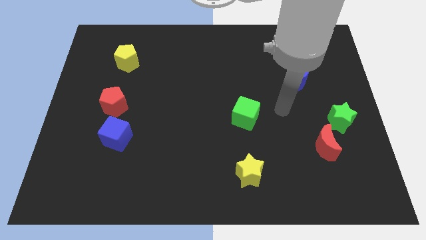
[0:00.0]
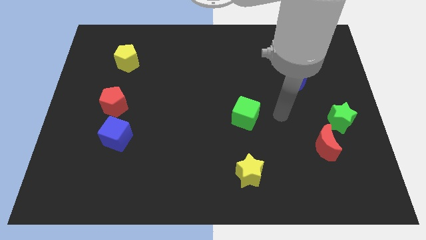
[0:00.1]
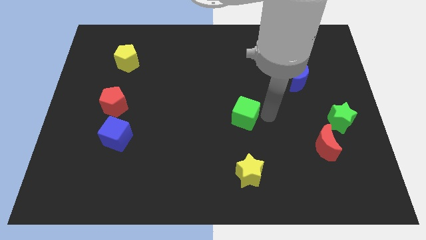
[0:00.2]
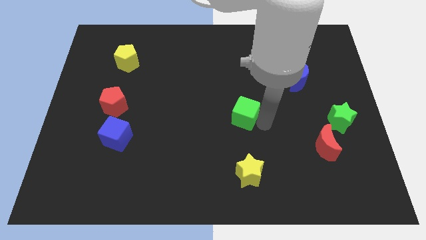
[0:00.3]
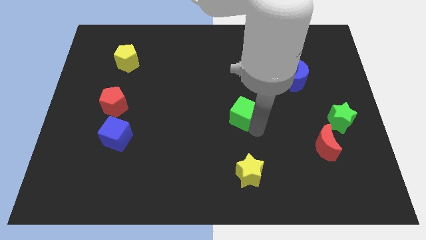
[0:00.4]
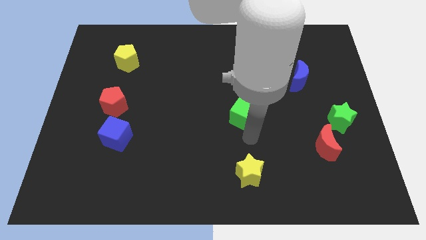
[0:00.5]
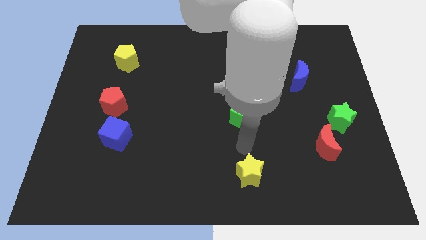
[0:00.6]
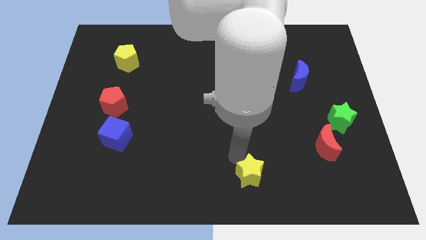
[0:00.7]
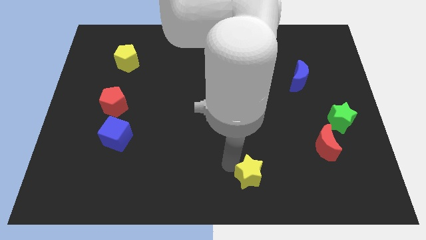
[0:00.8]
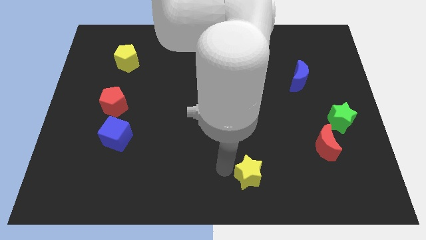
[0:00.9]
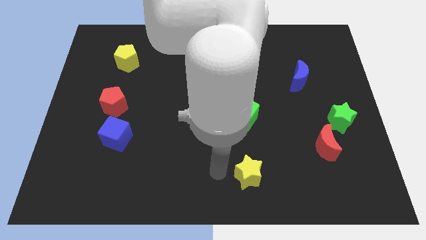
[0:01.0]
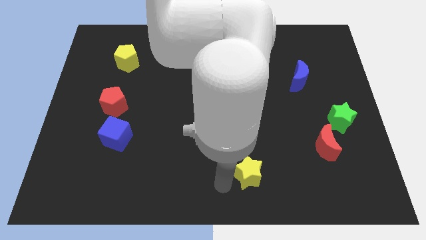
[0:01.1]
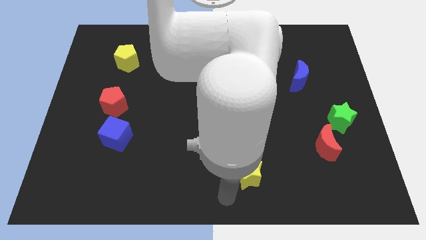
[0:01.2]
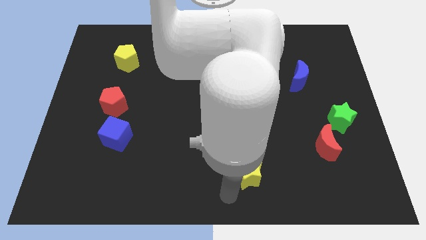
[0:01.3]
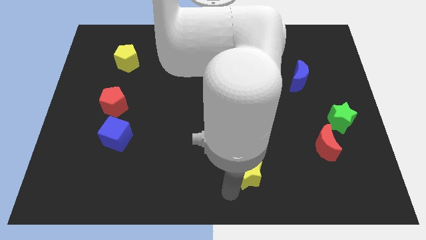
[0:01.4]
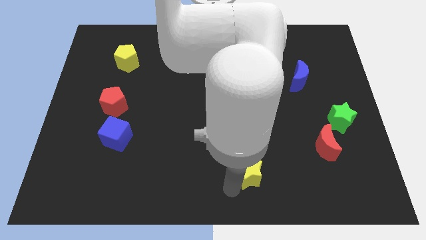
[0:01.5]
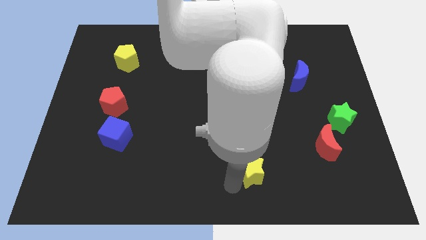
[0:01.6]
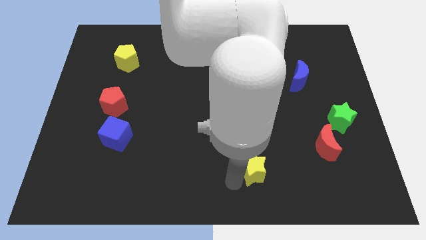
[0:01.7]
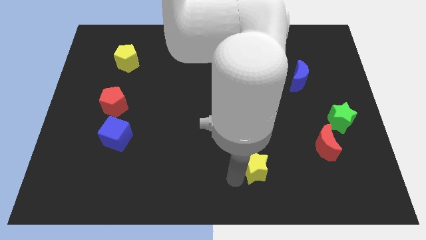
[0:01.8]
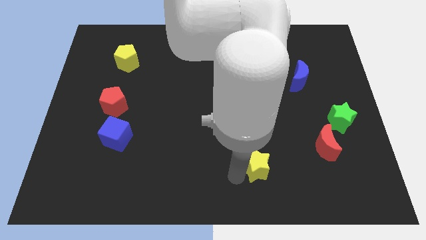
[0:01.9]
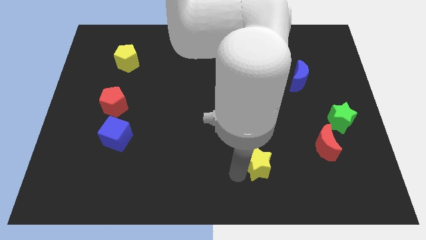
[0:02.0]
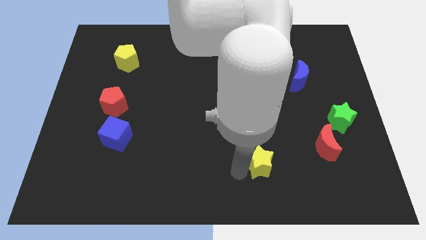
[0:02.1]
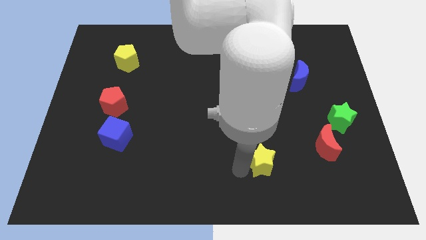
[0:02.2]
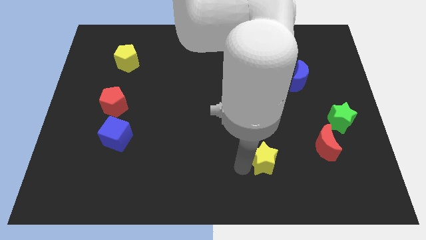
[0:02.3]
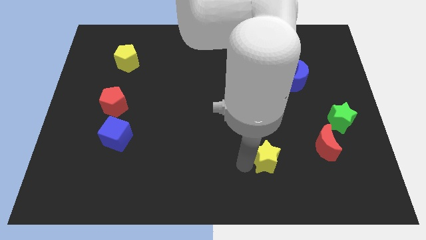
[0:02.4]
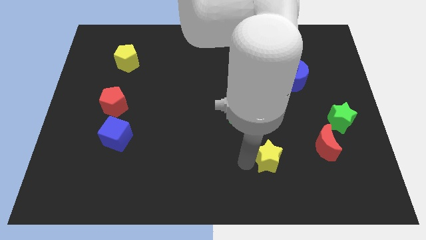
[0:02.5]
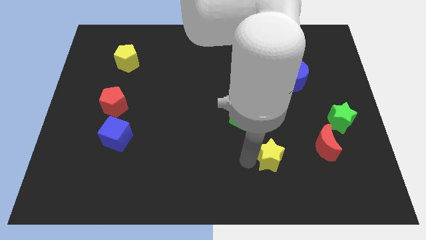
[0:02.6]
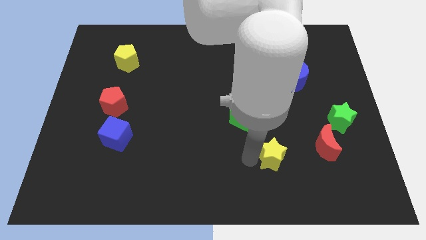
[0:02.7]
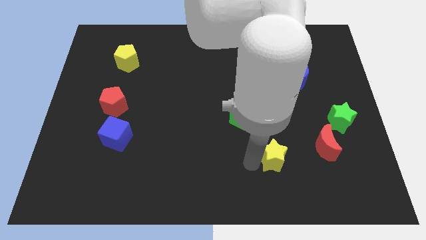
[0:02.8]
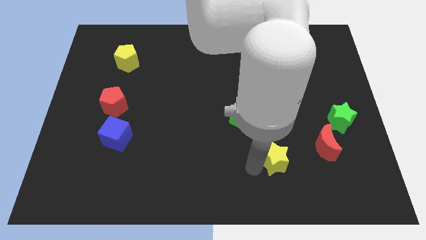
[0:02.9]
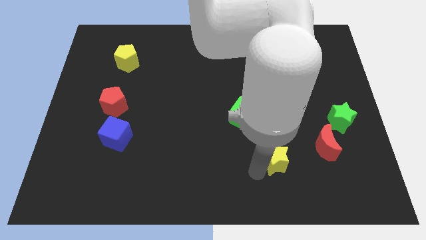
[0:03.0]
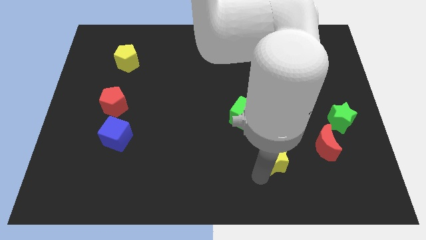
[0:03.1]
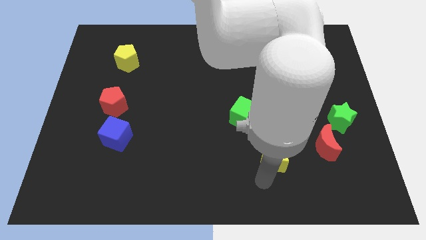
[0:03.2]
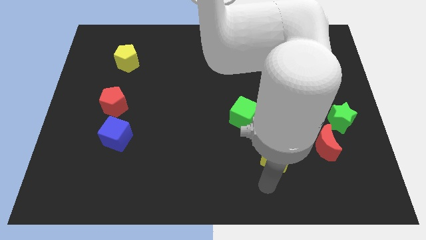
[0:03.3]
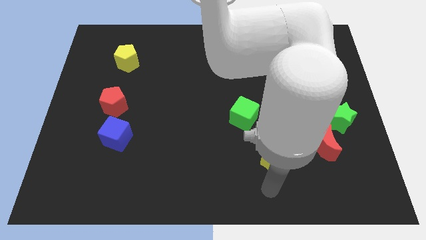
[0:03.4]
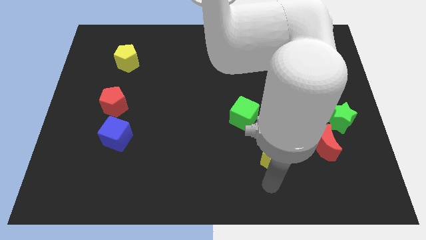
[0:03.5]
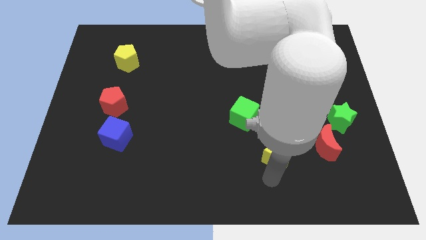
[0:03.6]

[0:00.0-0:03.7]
move the yellow star a little upwards and then to the right

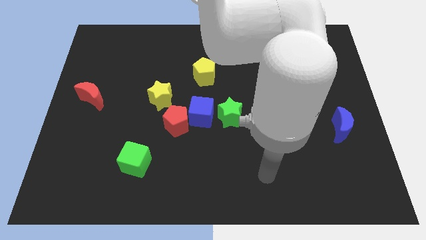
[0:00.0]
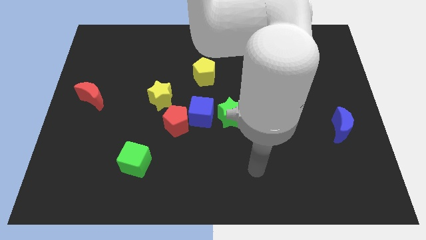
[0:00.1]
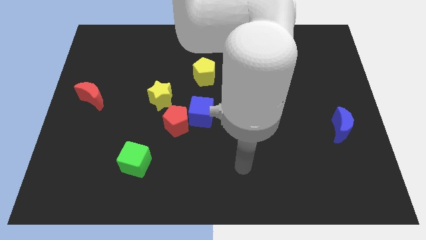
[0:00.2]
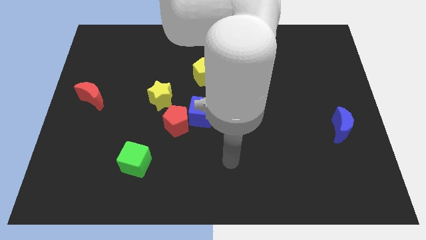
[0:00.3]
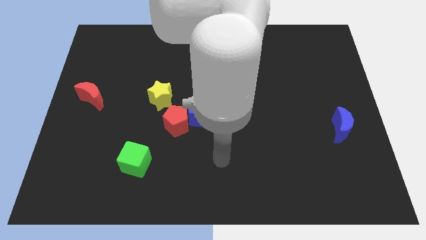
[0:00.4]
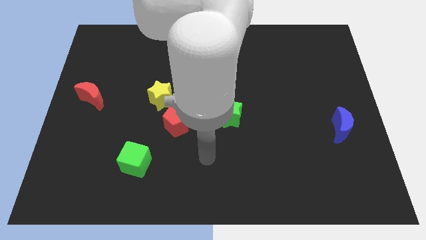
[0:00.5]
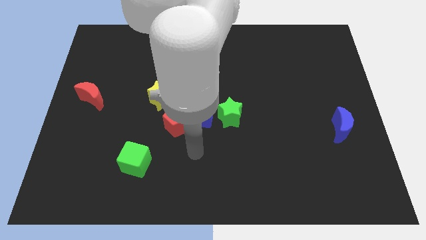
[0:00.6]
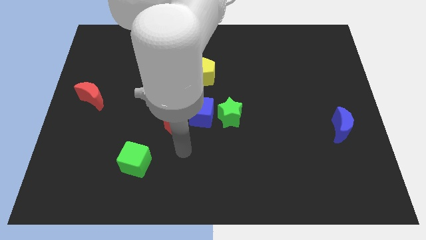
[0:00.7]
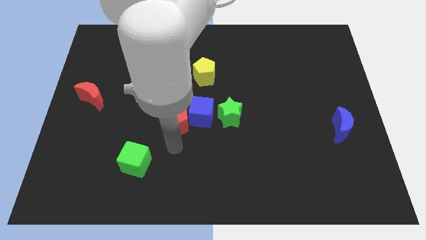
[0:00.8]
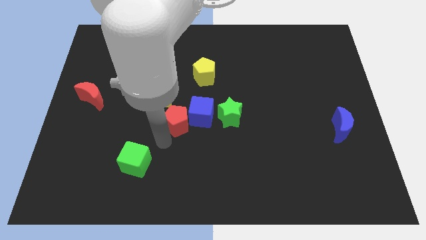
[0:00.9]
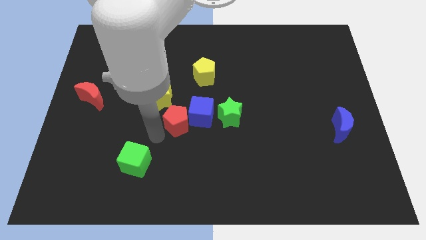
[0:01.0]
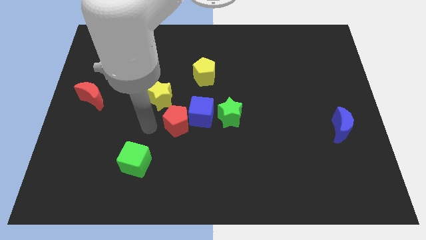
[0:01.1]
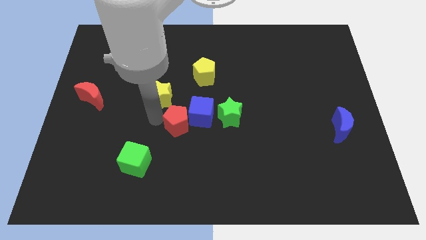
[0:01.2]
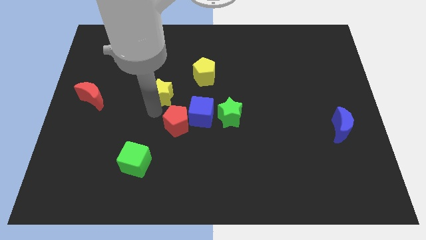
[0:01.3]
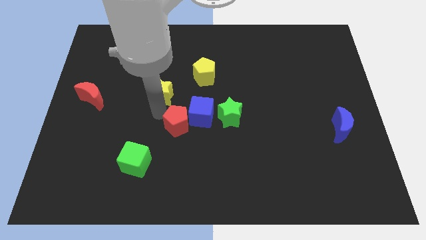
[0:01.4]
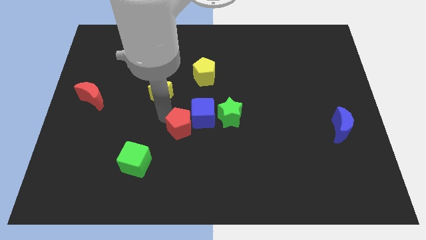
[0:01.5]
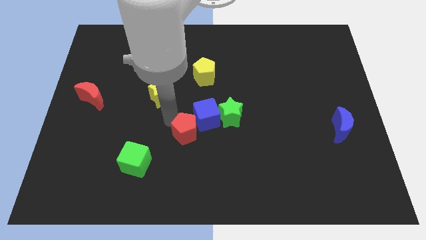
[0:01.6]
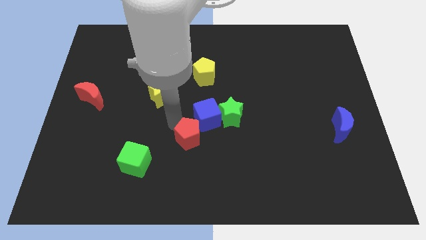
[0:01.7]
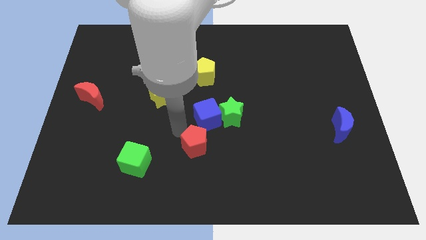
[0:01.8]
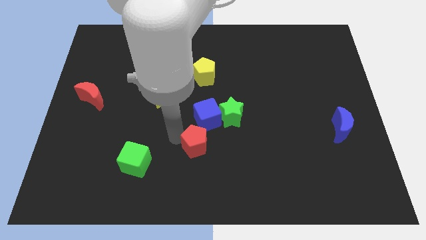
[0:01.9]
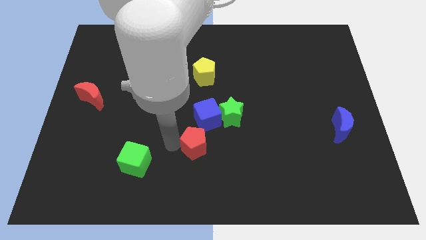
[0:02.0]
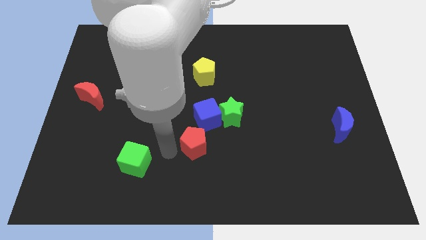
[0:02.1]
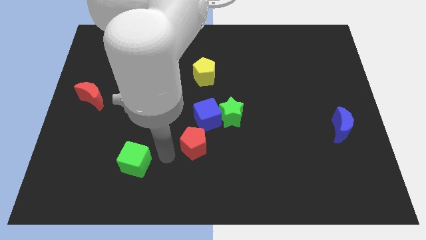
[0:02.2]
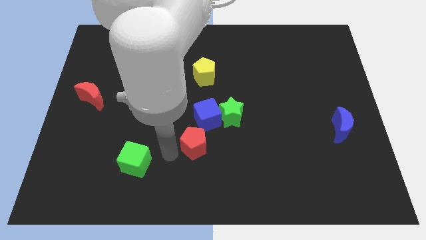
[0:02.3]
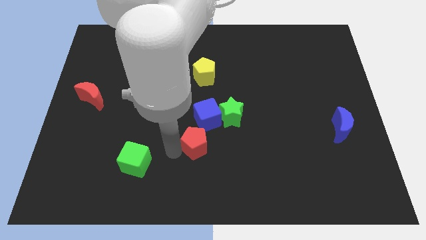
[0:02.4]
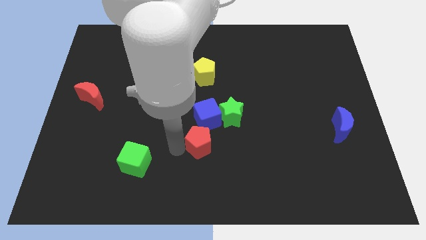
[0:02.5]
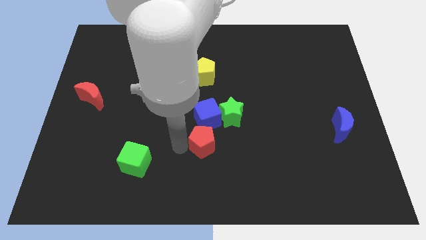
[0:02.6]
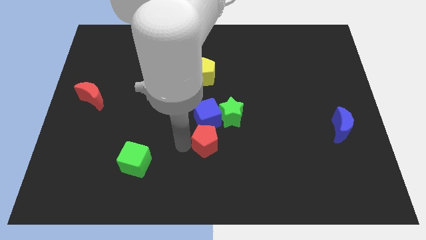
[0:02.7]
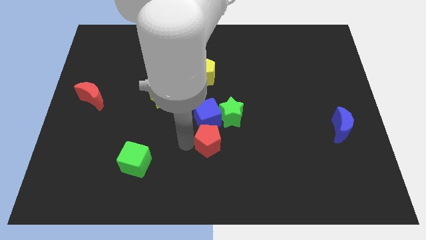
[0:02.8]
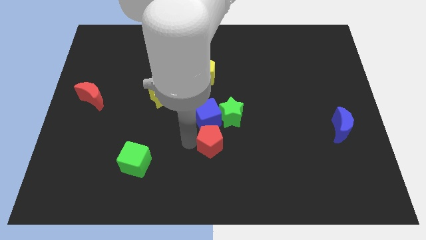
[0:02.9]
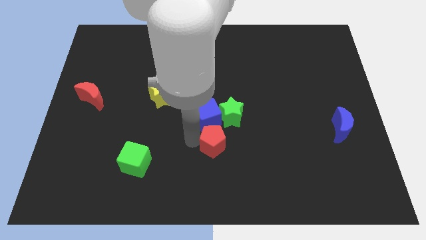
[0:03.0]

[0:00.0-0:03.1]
slide the red pentagon a little bit right

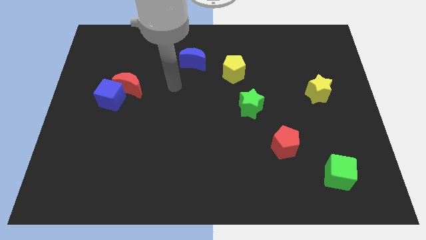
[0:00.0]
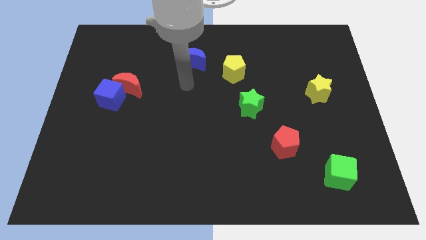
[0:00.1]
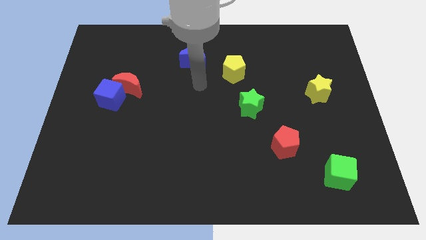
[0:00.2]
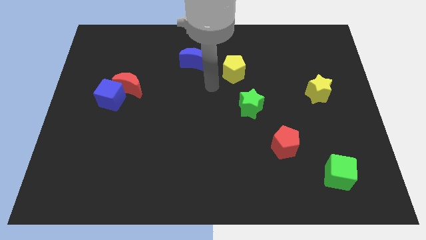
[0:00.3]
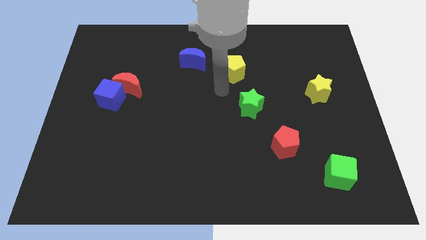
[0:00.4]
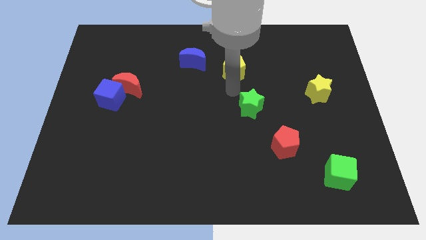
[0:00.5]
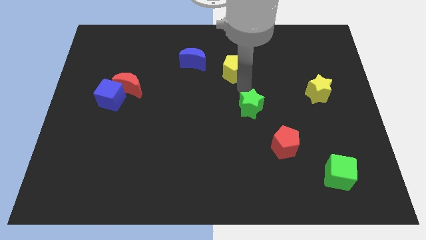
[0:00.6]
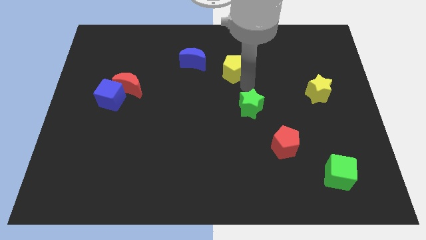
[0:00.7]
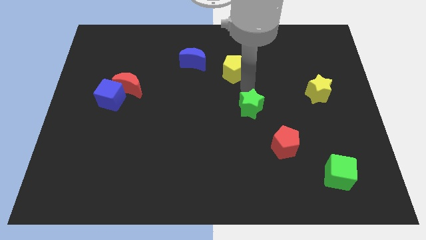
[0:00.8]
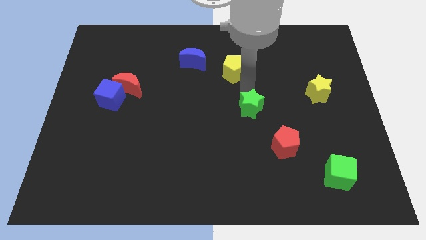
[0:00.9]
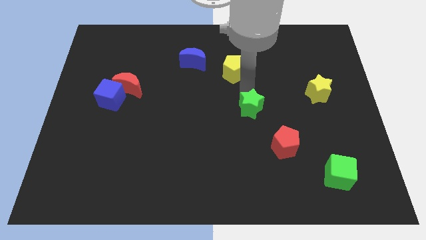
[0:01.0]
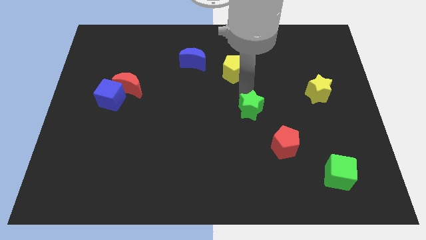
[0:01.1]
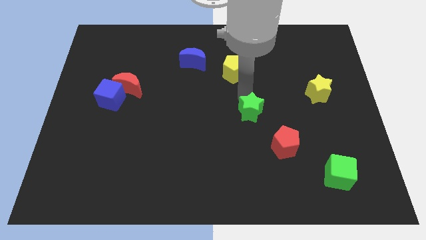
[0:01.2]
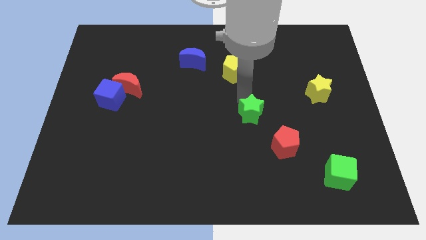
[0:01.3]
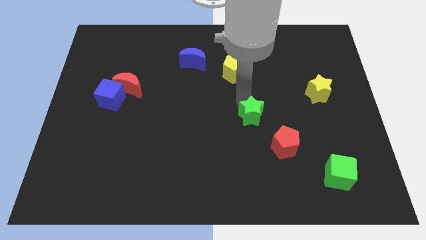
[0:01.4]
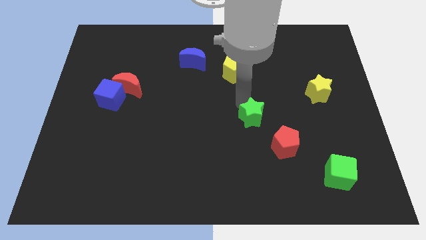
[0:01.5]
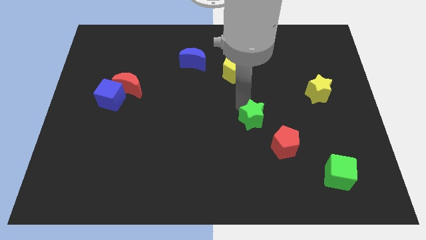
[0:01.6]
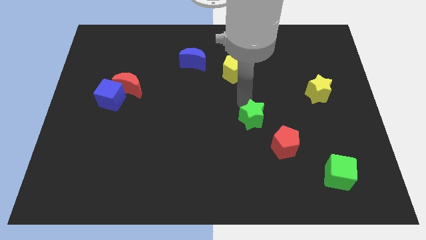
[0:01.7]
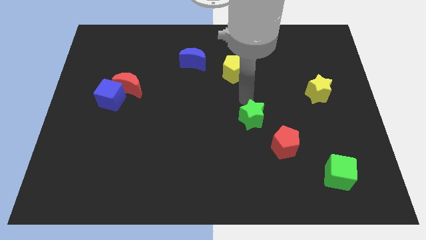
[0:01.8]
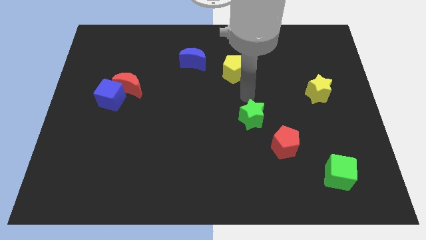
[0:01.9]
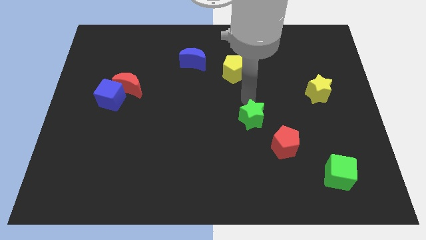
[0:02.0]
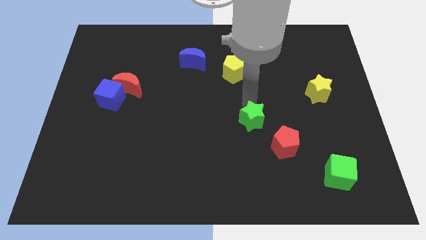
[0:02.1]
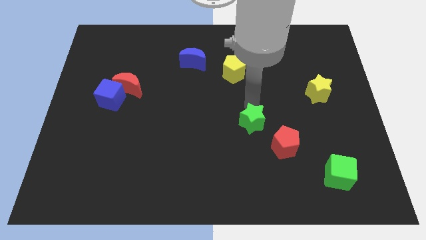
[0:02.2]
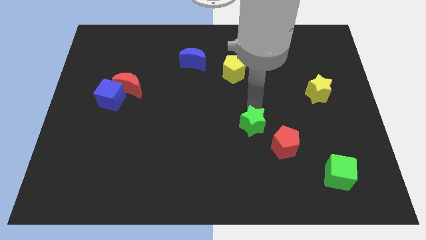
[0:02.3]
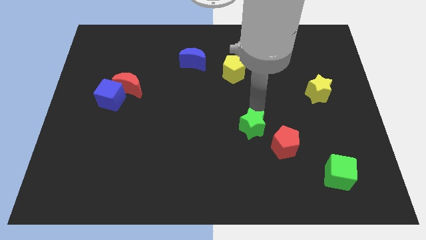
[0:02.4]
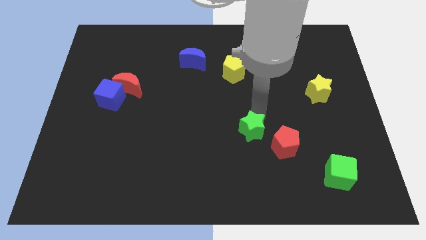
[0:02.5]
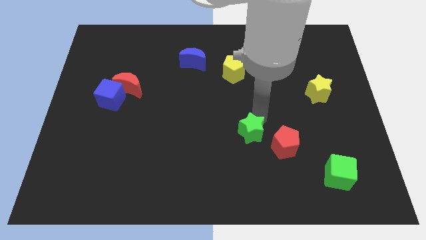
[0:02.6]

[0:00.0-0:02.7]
move the green star somewhat downwards
